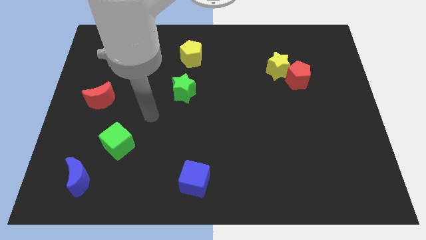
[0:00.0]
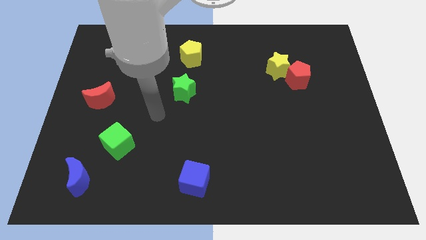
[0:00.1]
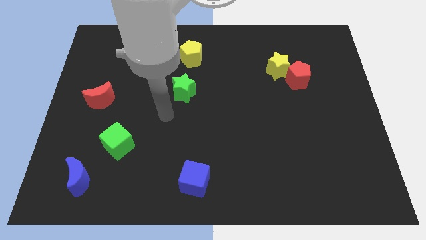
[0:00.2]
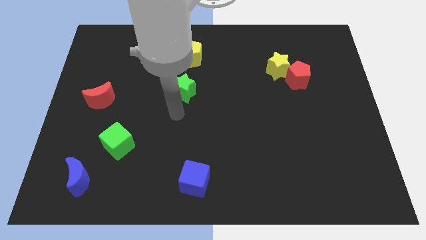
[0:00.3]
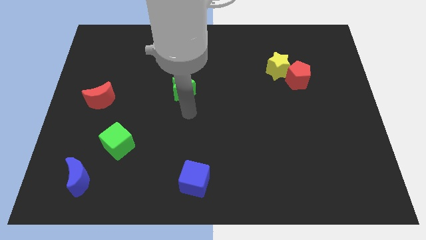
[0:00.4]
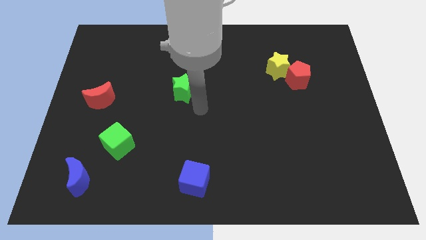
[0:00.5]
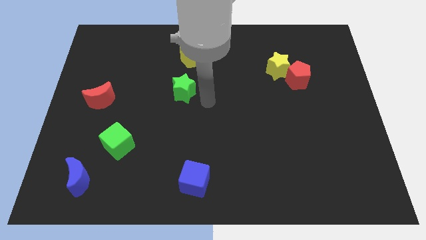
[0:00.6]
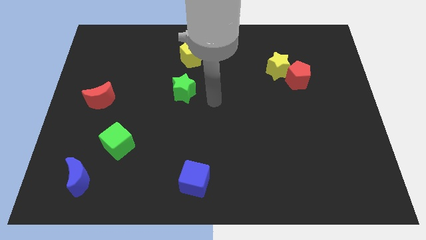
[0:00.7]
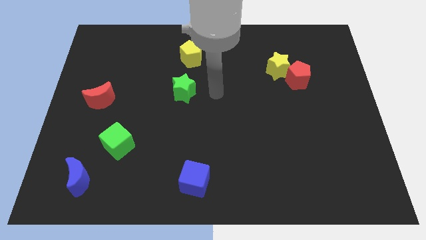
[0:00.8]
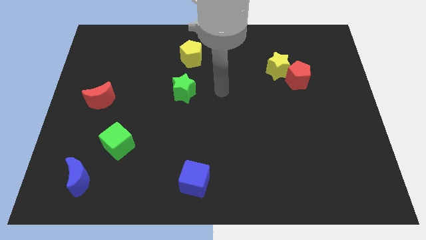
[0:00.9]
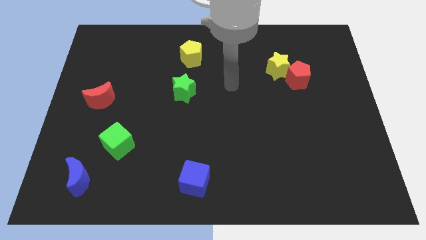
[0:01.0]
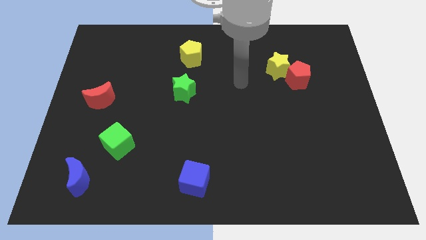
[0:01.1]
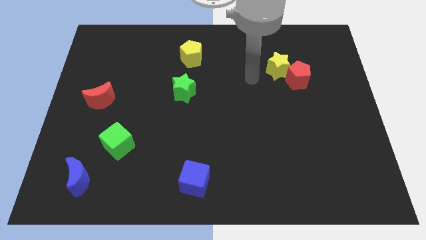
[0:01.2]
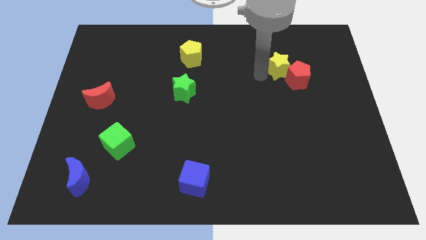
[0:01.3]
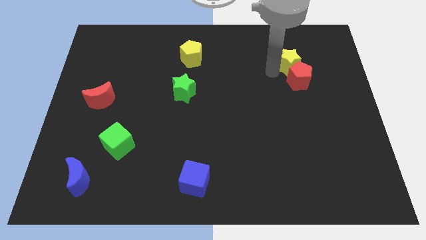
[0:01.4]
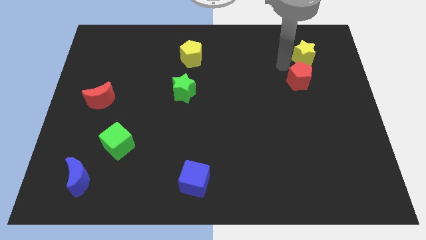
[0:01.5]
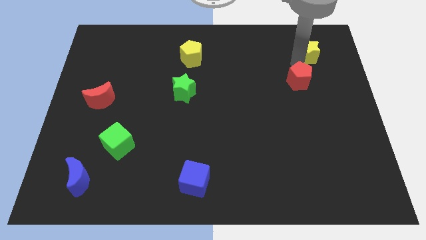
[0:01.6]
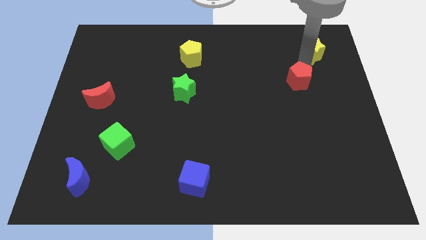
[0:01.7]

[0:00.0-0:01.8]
pull the red pentagon apart from the yellow star

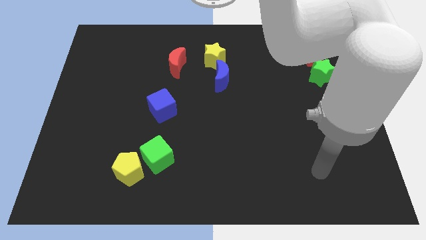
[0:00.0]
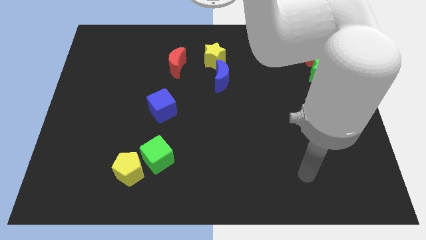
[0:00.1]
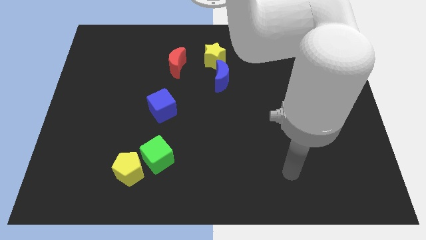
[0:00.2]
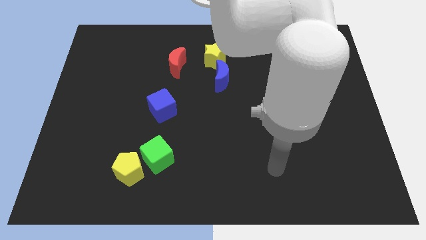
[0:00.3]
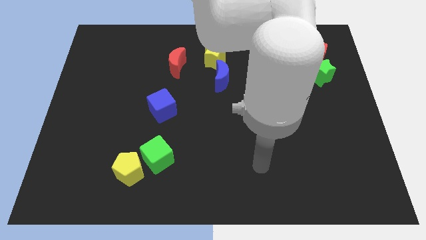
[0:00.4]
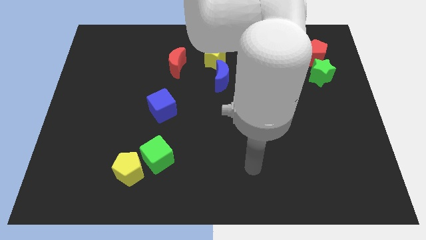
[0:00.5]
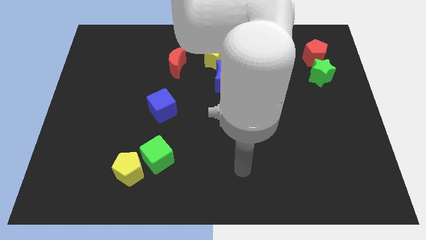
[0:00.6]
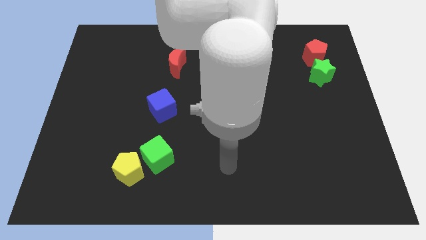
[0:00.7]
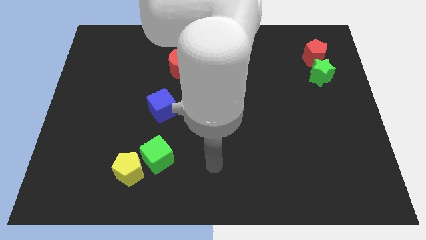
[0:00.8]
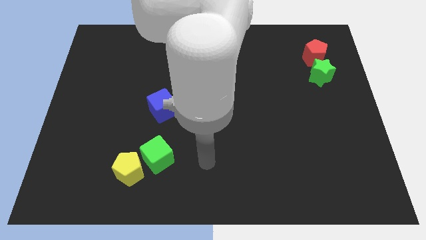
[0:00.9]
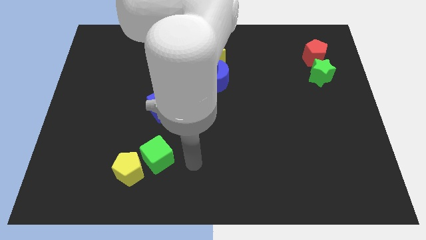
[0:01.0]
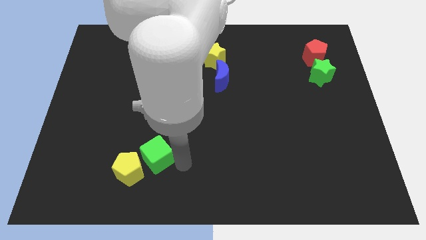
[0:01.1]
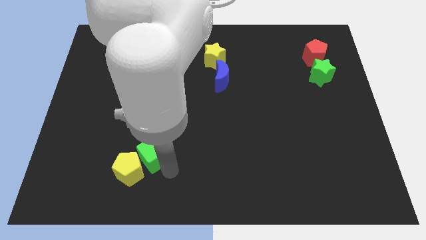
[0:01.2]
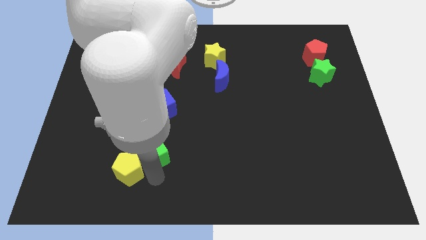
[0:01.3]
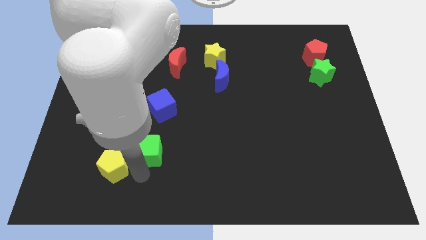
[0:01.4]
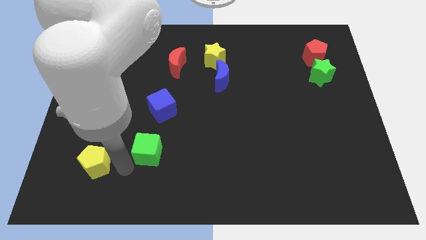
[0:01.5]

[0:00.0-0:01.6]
separate the green cube from the yellow pentagon

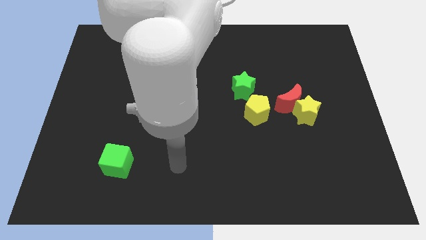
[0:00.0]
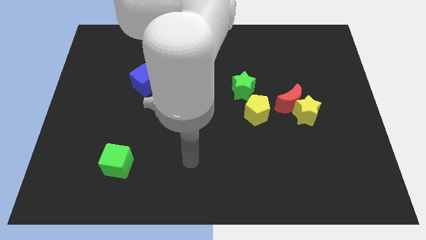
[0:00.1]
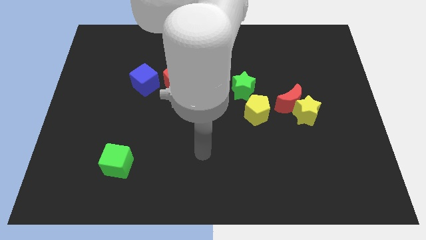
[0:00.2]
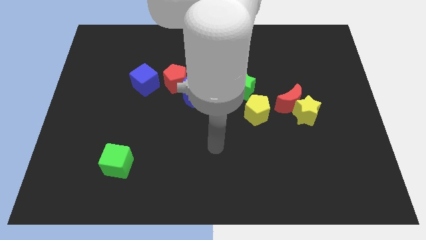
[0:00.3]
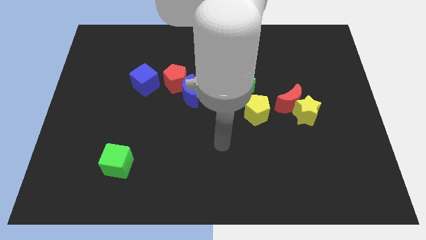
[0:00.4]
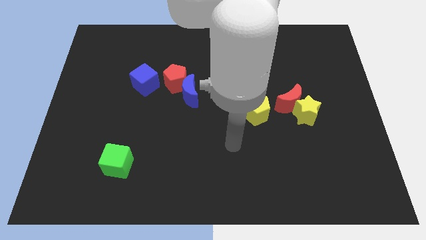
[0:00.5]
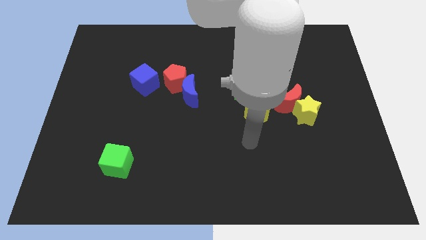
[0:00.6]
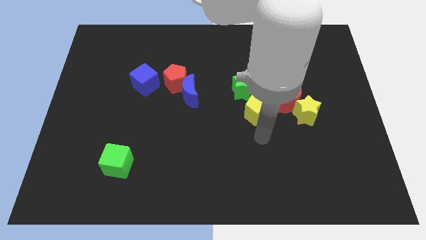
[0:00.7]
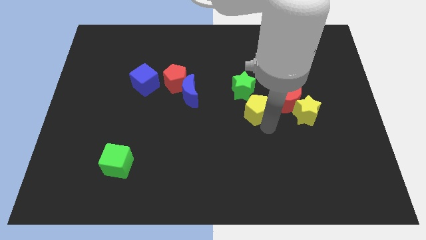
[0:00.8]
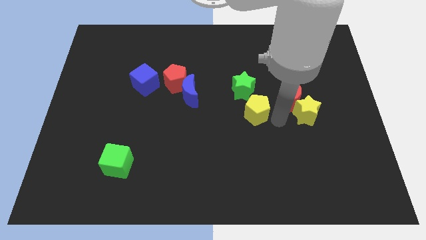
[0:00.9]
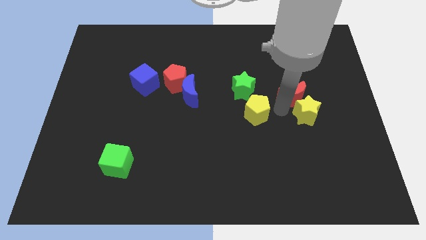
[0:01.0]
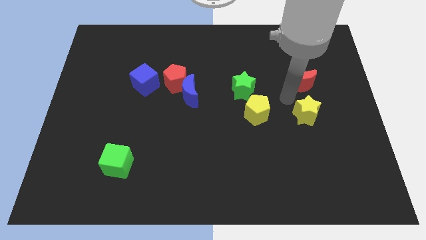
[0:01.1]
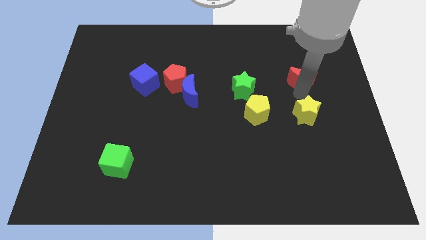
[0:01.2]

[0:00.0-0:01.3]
move the yellow star away from the red moon

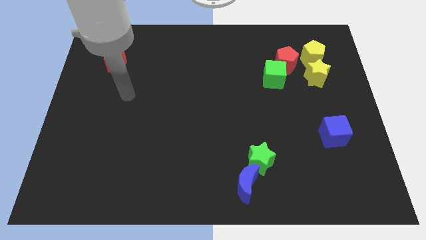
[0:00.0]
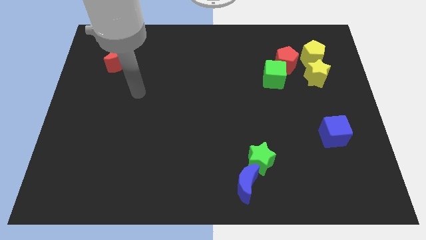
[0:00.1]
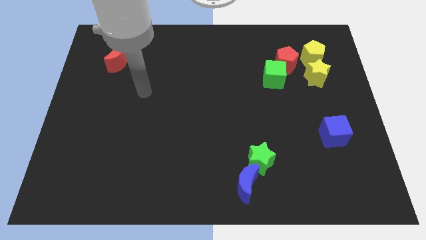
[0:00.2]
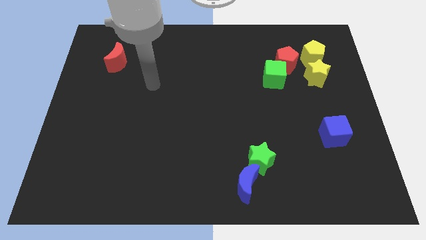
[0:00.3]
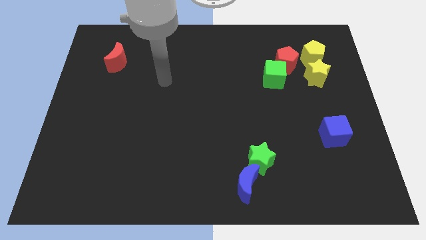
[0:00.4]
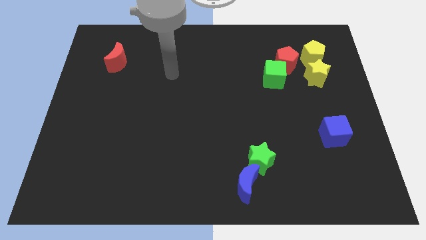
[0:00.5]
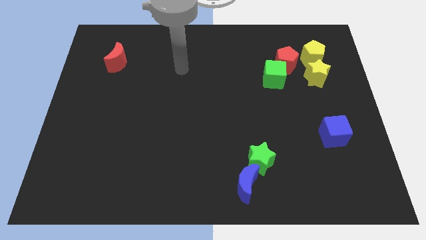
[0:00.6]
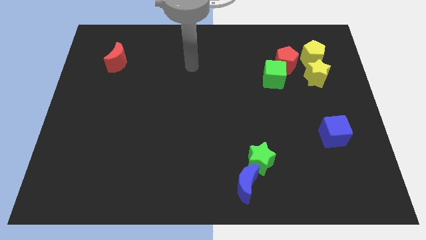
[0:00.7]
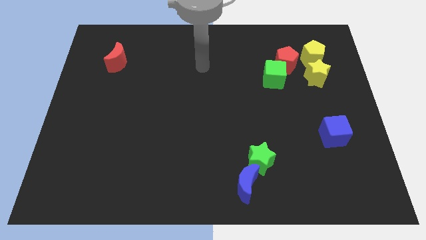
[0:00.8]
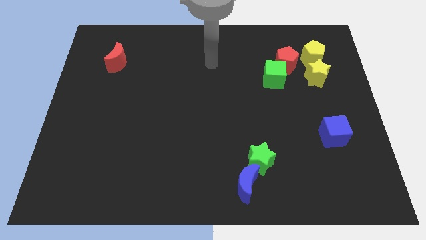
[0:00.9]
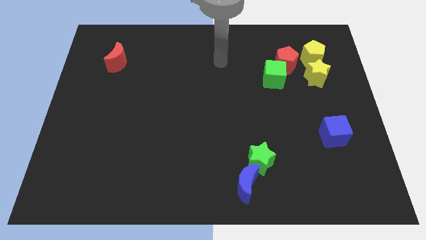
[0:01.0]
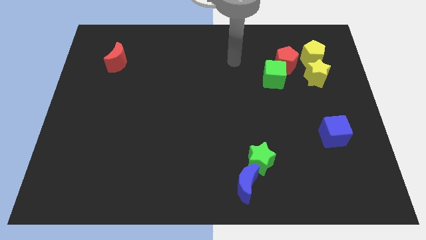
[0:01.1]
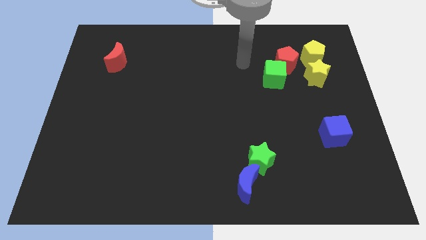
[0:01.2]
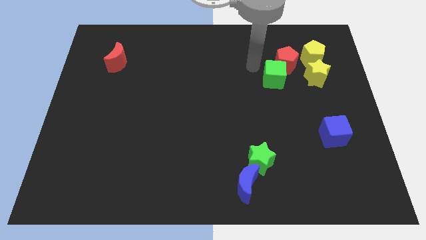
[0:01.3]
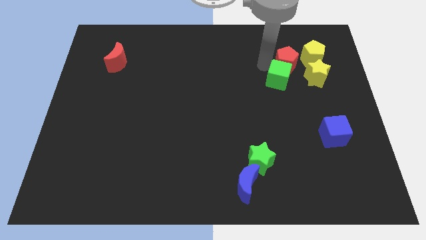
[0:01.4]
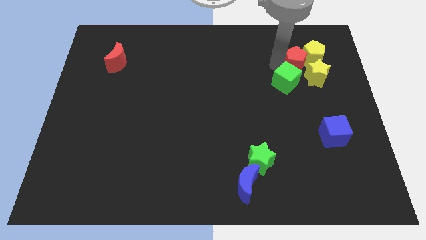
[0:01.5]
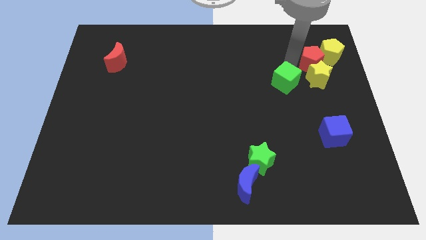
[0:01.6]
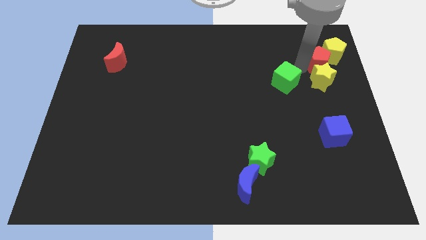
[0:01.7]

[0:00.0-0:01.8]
pull the green cube apart from the red pentagon

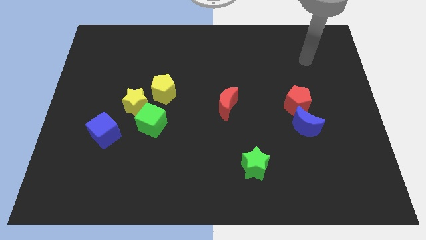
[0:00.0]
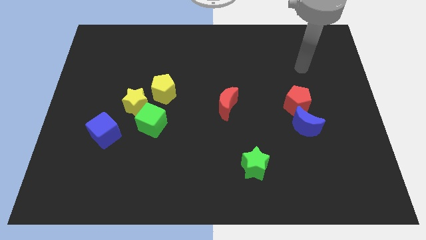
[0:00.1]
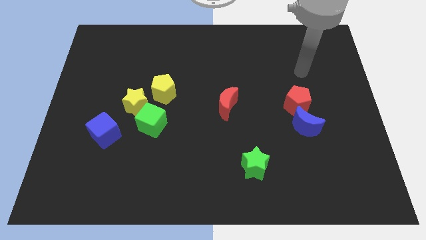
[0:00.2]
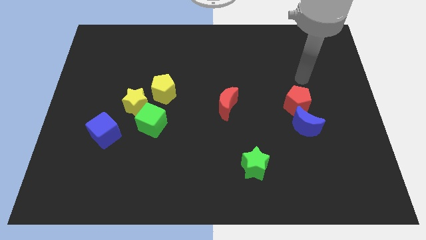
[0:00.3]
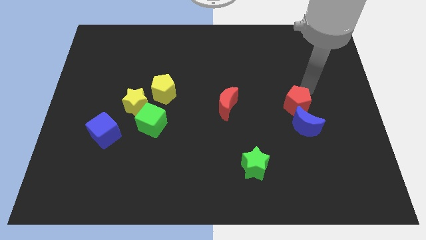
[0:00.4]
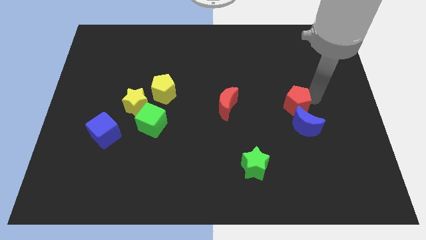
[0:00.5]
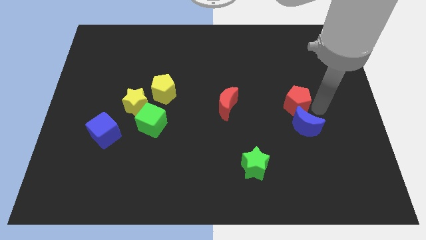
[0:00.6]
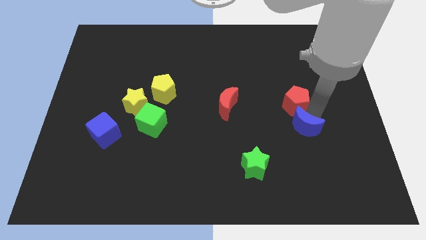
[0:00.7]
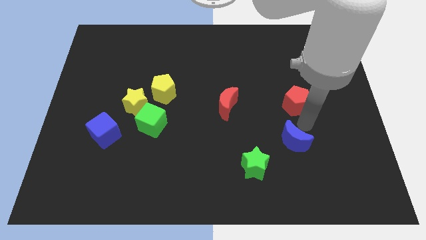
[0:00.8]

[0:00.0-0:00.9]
separate the red pentagon from the blue moon

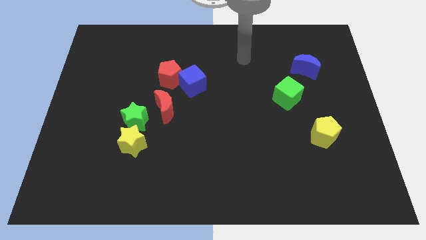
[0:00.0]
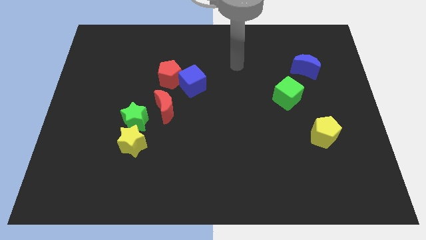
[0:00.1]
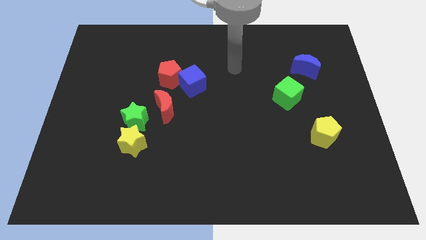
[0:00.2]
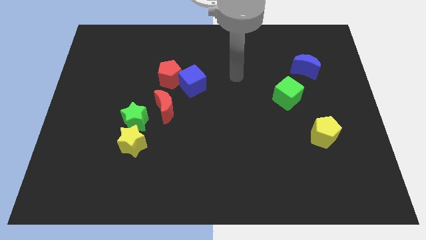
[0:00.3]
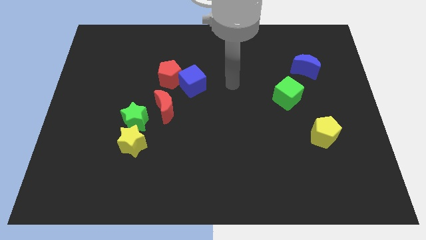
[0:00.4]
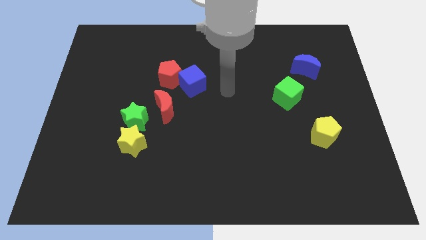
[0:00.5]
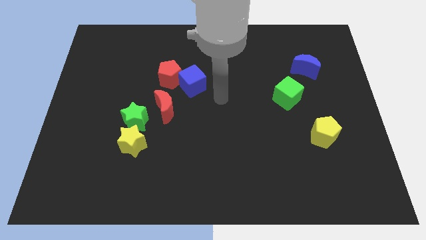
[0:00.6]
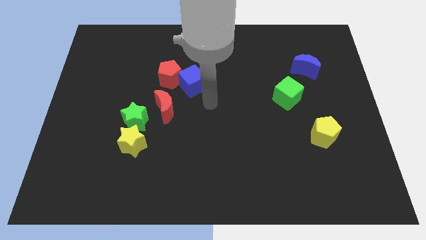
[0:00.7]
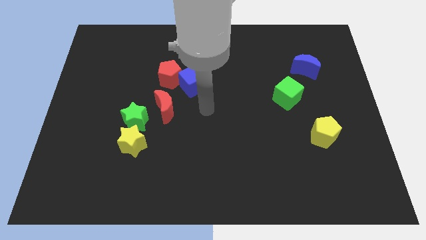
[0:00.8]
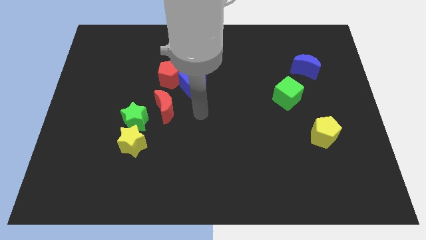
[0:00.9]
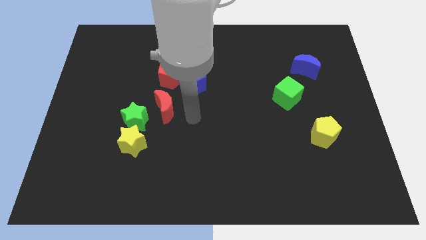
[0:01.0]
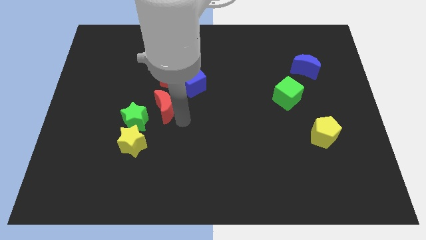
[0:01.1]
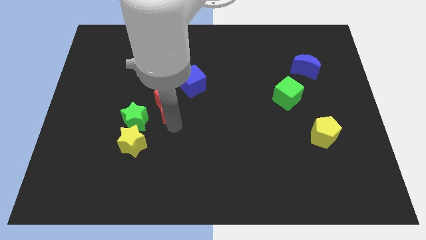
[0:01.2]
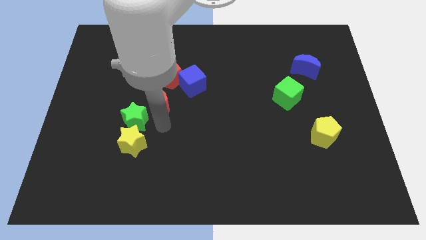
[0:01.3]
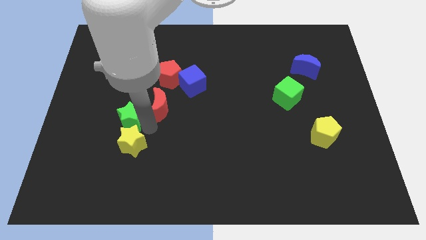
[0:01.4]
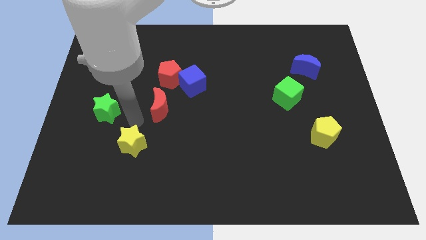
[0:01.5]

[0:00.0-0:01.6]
move the yellow star away from the green star

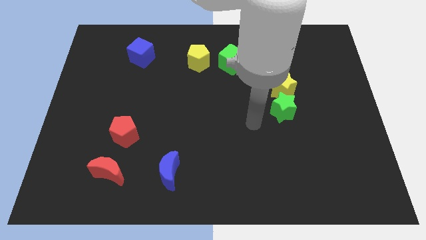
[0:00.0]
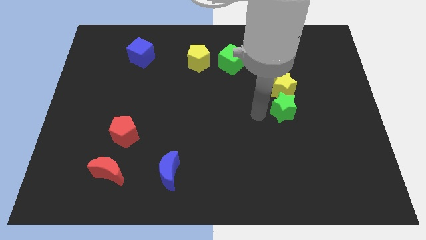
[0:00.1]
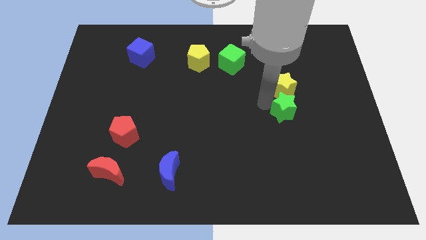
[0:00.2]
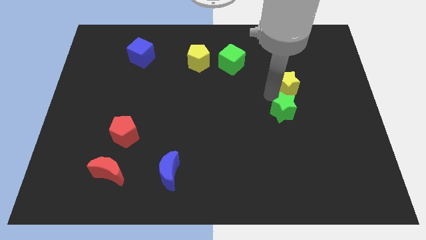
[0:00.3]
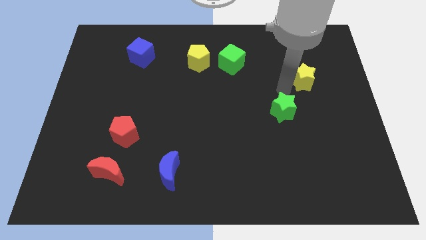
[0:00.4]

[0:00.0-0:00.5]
separate the green star from the yellow star
